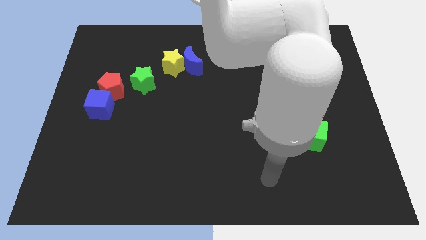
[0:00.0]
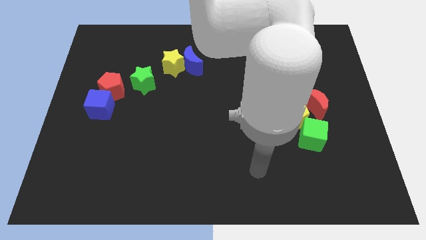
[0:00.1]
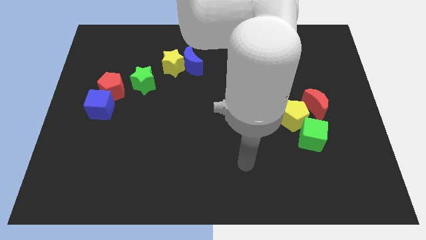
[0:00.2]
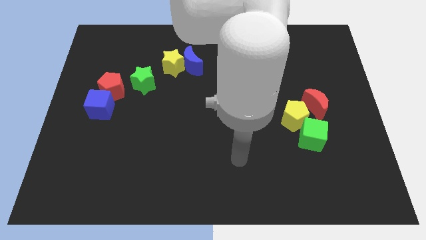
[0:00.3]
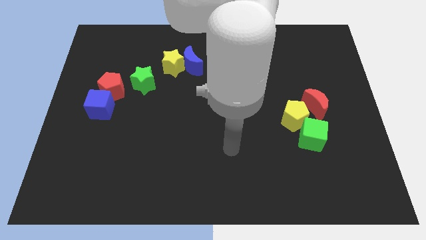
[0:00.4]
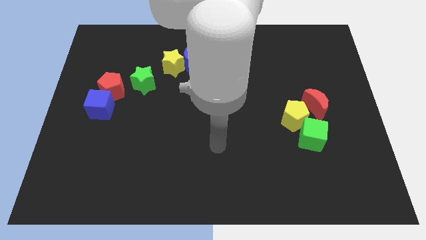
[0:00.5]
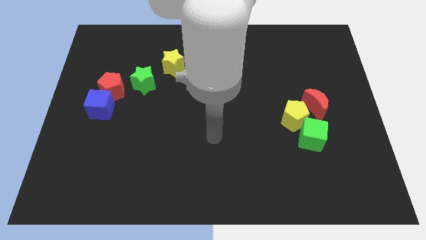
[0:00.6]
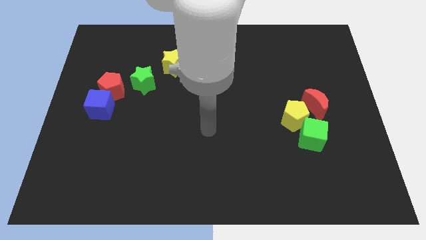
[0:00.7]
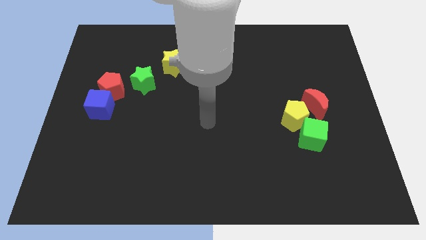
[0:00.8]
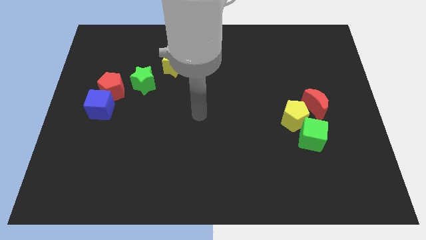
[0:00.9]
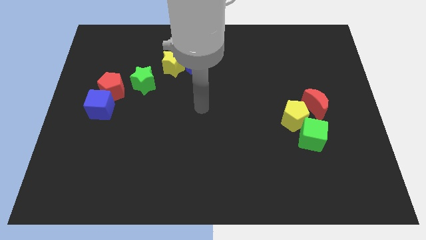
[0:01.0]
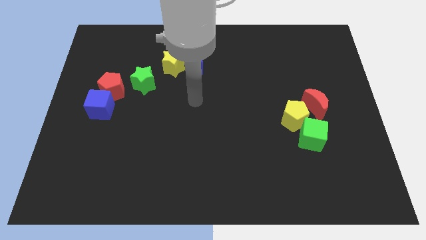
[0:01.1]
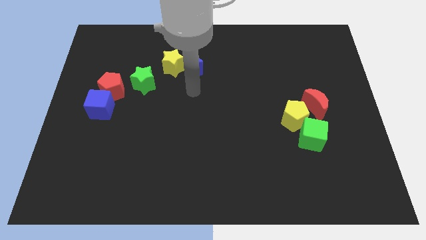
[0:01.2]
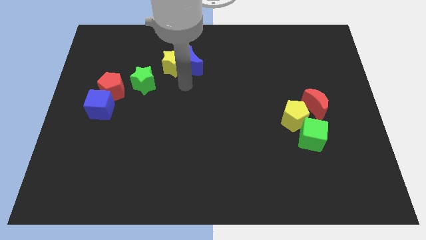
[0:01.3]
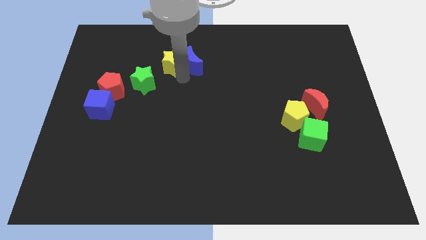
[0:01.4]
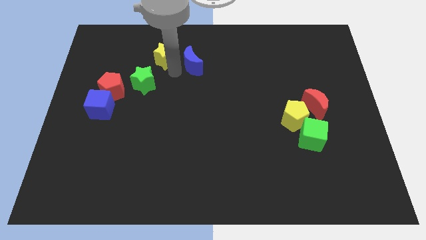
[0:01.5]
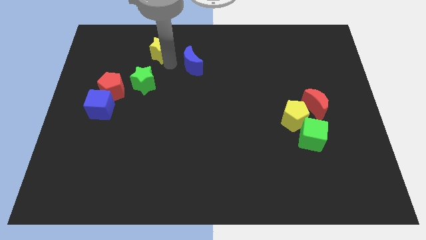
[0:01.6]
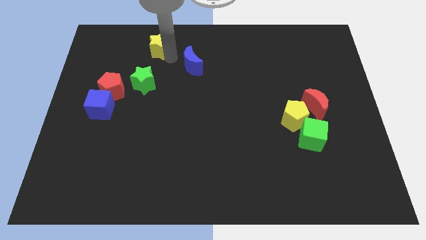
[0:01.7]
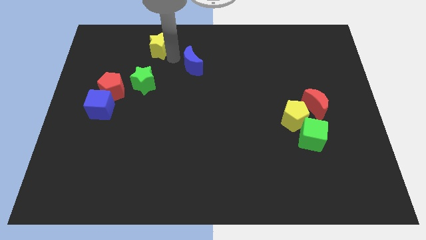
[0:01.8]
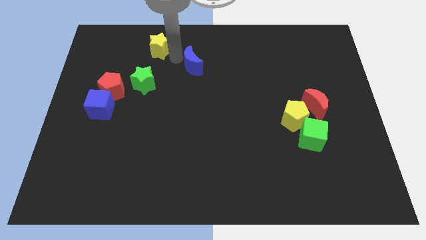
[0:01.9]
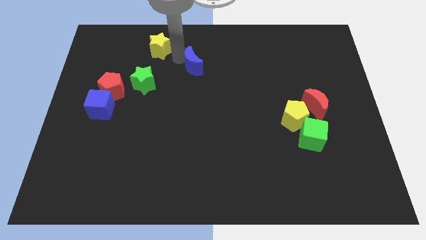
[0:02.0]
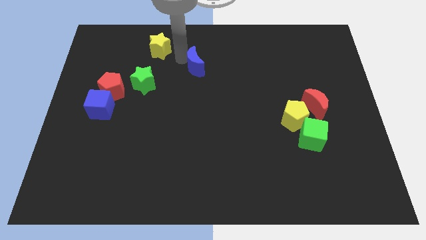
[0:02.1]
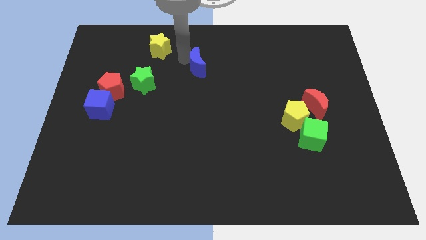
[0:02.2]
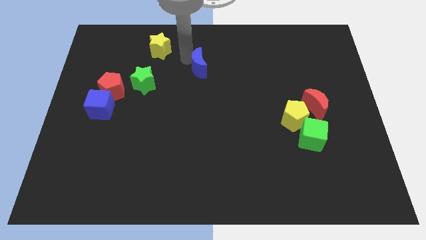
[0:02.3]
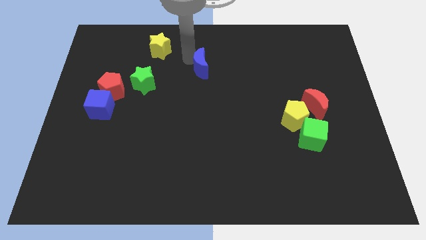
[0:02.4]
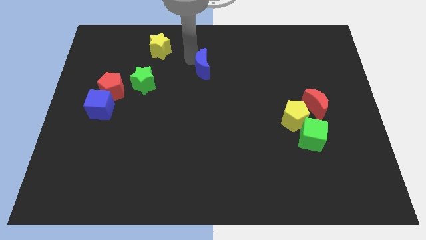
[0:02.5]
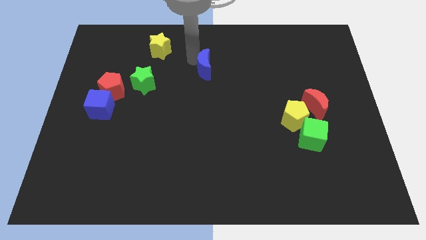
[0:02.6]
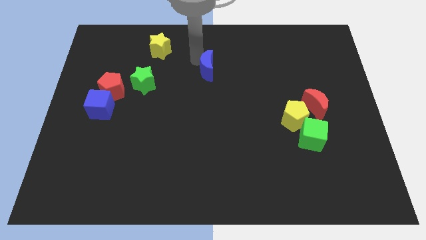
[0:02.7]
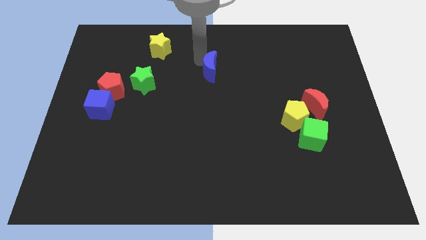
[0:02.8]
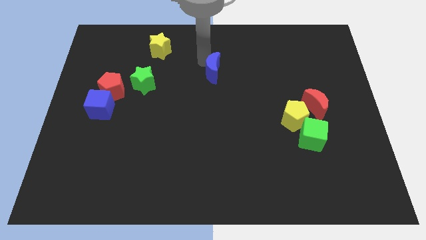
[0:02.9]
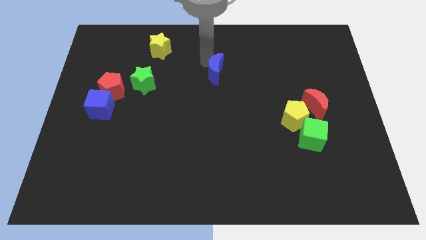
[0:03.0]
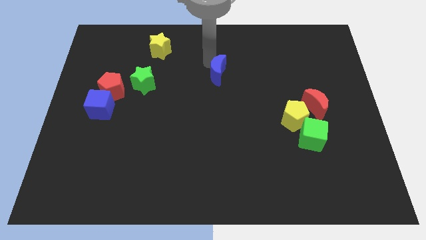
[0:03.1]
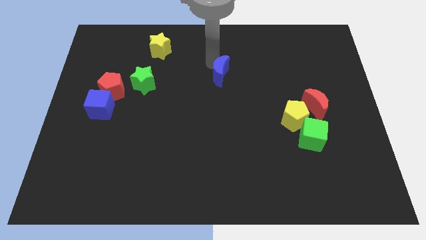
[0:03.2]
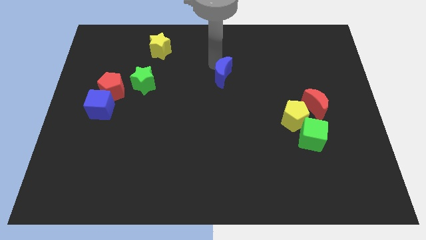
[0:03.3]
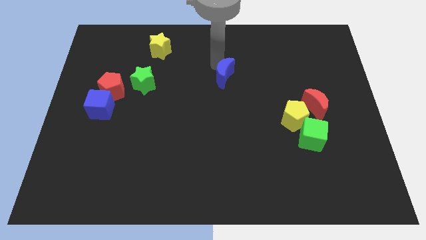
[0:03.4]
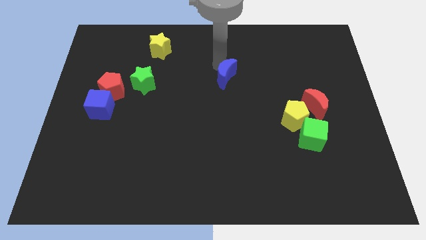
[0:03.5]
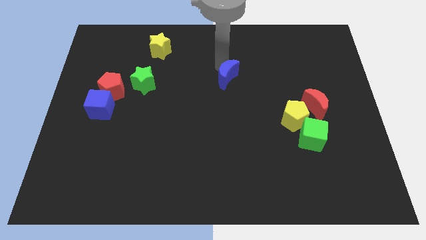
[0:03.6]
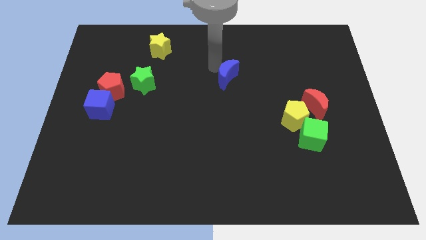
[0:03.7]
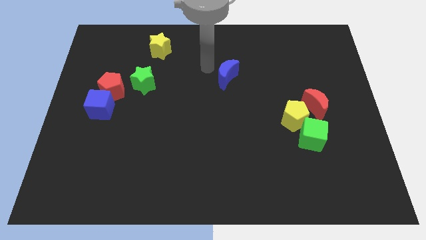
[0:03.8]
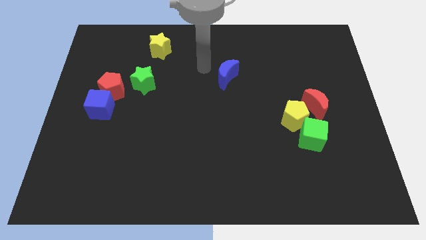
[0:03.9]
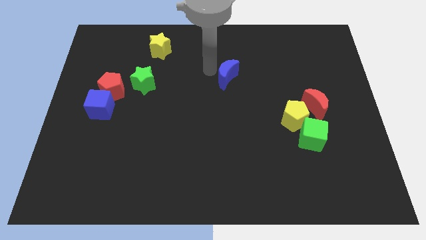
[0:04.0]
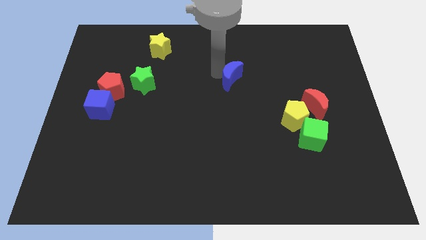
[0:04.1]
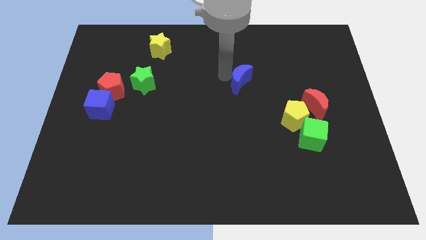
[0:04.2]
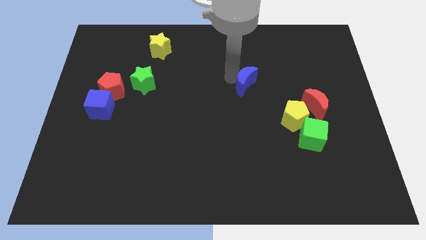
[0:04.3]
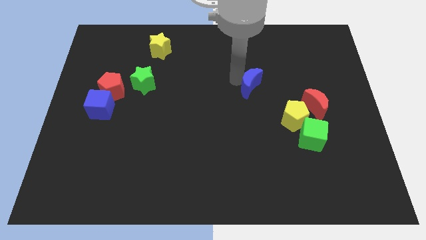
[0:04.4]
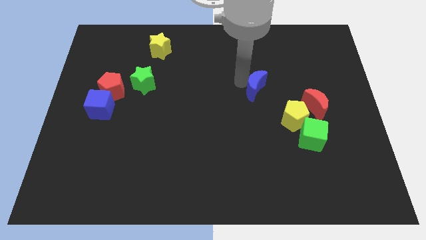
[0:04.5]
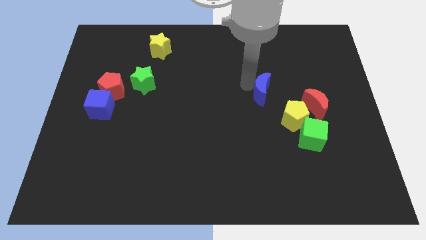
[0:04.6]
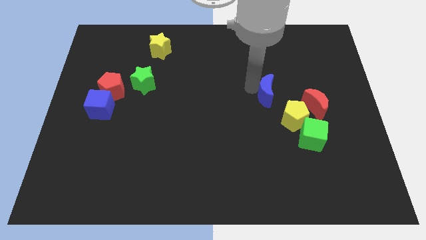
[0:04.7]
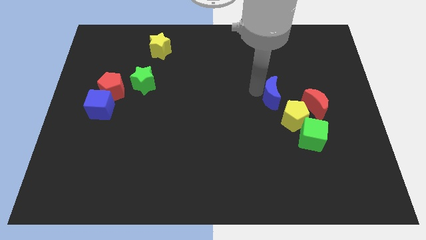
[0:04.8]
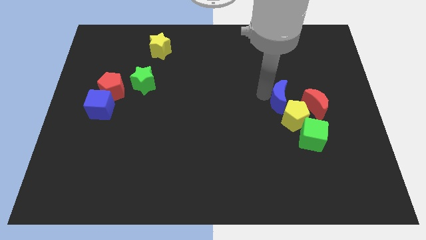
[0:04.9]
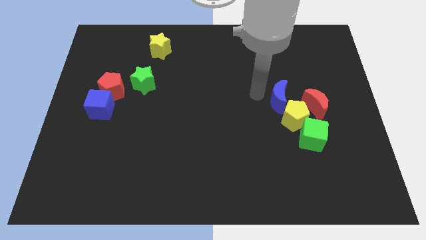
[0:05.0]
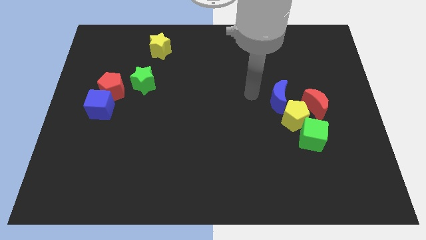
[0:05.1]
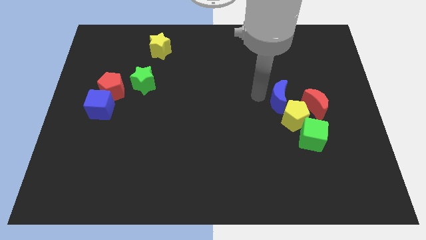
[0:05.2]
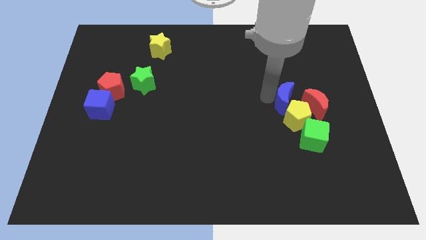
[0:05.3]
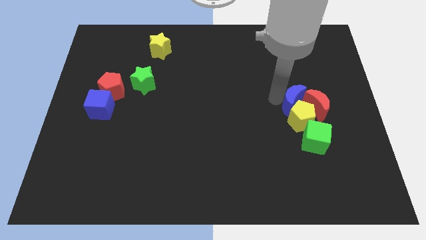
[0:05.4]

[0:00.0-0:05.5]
slide the blue moon towards the red moon

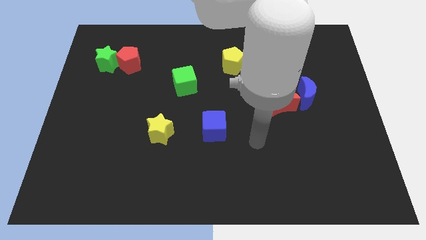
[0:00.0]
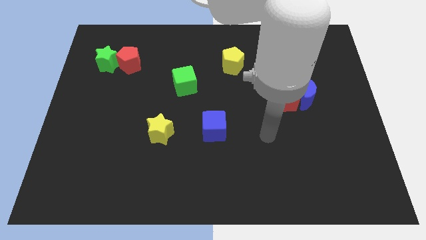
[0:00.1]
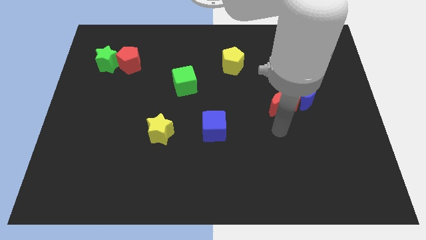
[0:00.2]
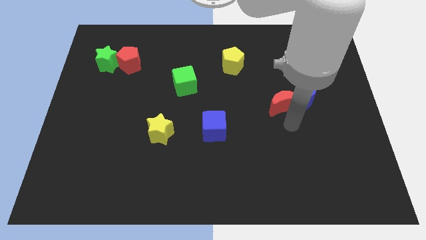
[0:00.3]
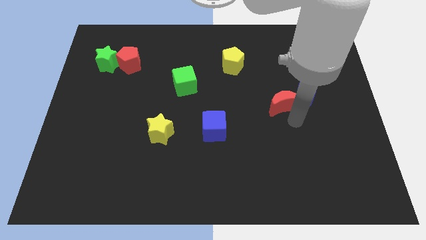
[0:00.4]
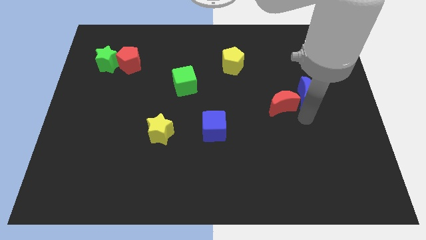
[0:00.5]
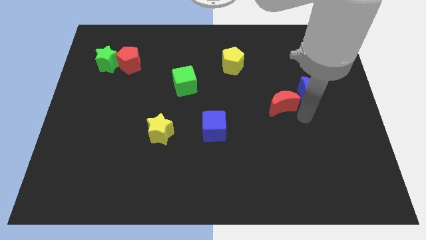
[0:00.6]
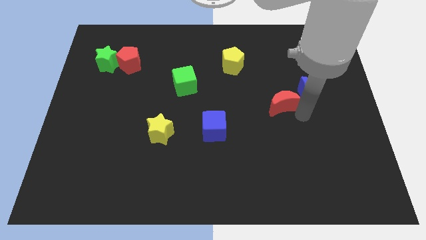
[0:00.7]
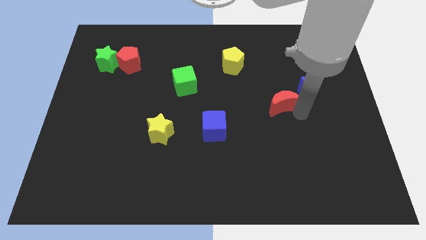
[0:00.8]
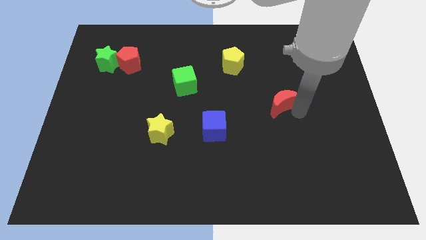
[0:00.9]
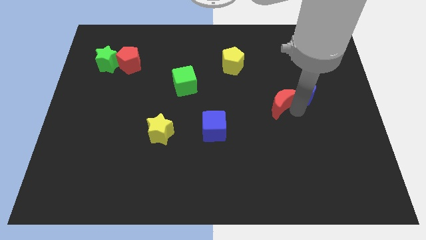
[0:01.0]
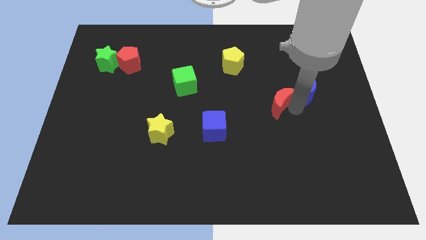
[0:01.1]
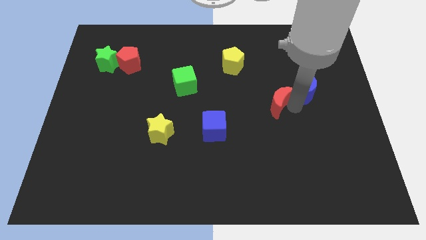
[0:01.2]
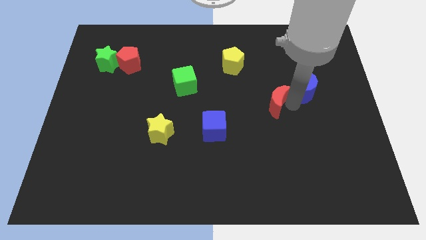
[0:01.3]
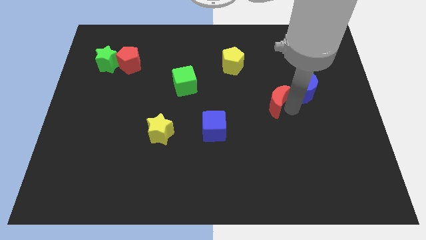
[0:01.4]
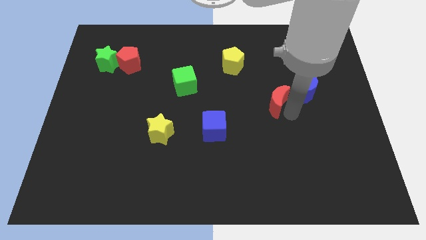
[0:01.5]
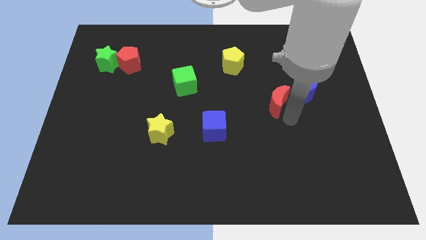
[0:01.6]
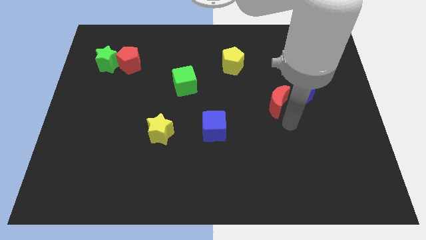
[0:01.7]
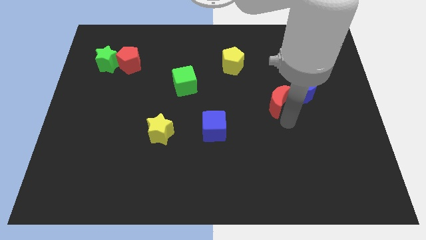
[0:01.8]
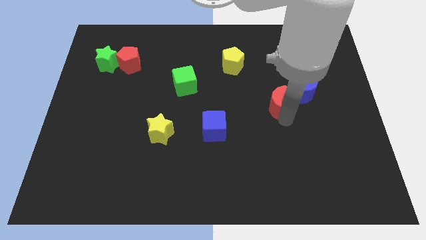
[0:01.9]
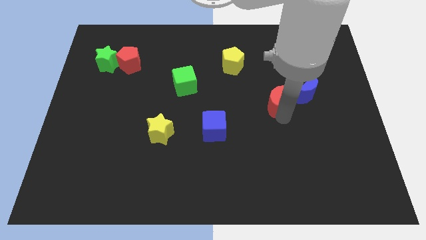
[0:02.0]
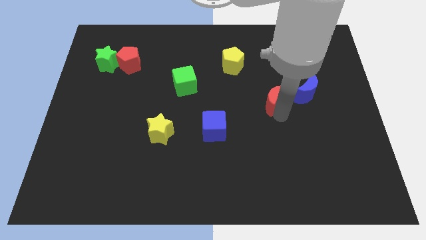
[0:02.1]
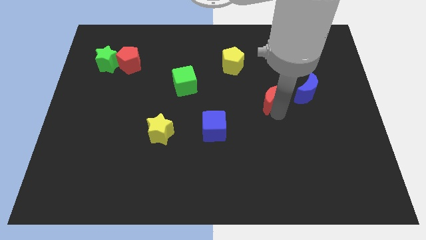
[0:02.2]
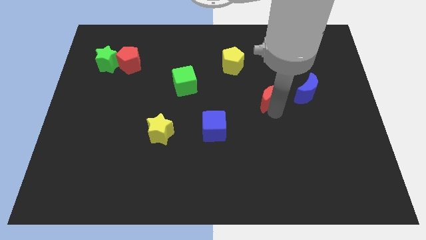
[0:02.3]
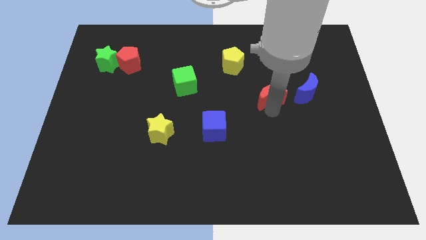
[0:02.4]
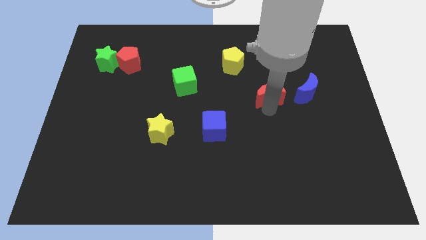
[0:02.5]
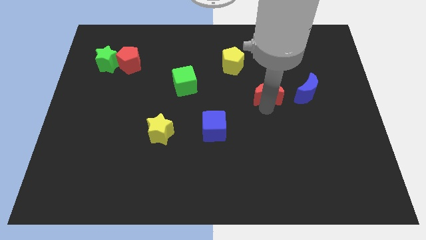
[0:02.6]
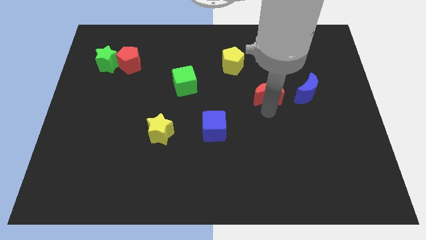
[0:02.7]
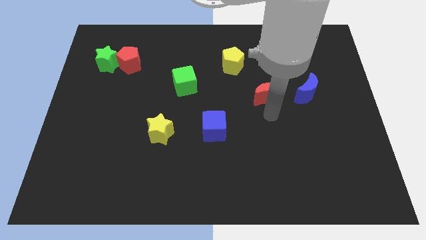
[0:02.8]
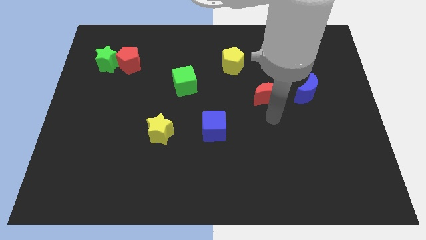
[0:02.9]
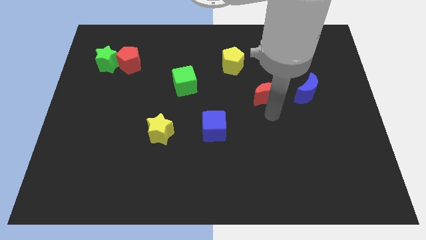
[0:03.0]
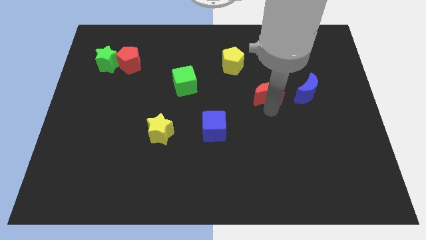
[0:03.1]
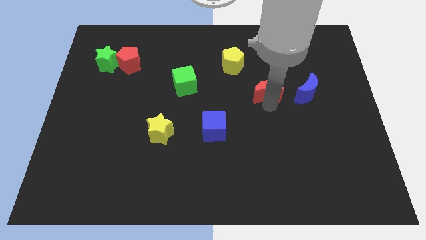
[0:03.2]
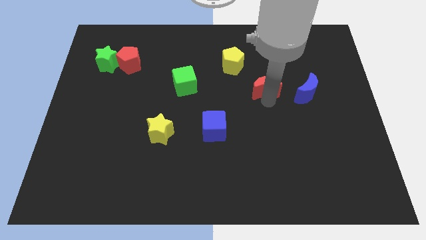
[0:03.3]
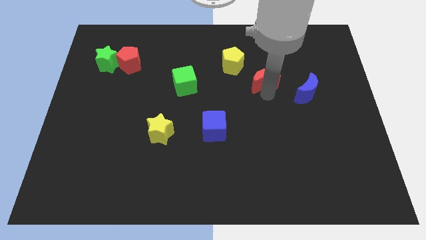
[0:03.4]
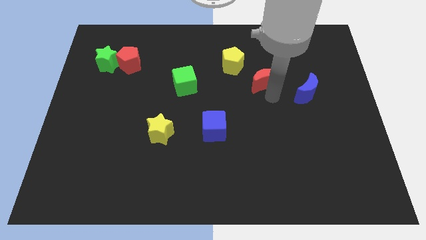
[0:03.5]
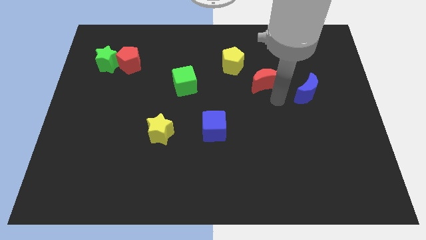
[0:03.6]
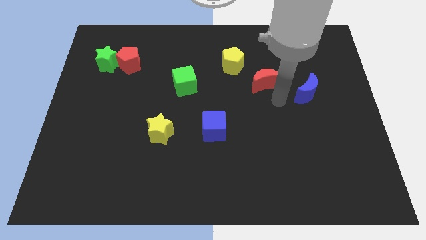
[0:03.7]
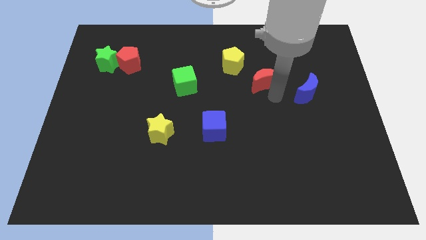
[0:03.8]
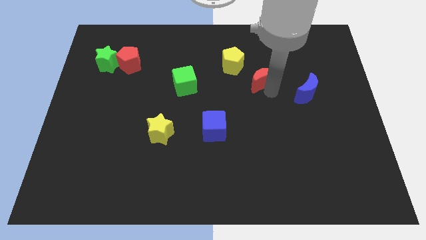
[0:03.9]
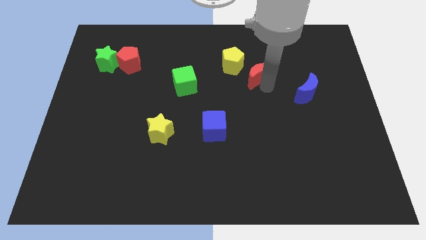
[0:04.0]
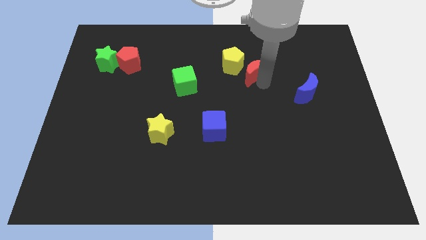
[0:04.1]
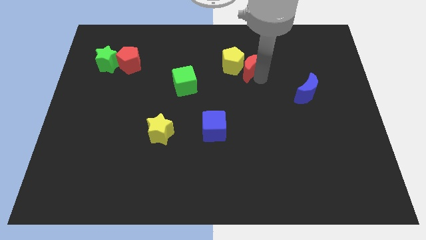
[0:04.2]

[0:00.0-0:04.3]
slide the red moon close to the yellow pentagon
